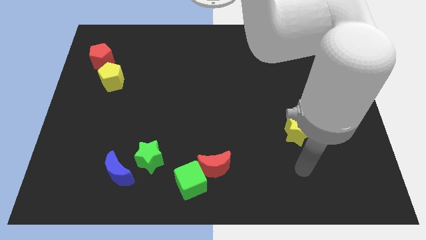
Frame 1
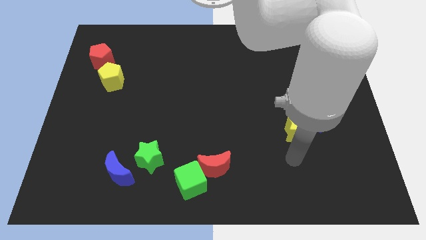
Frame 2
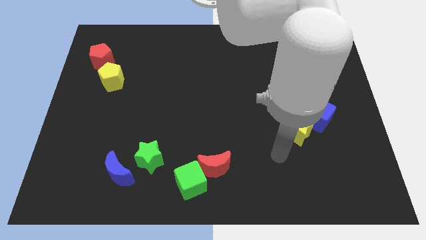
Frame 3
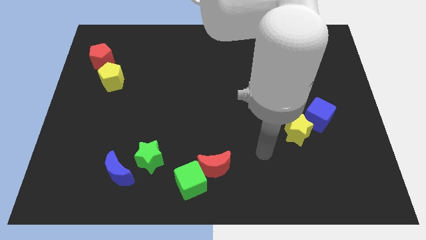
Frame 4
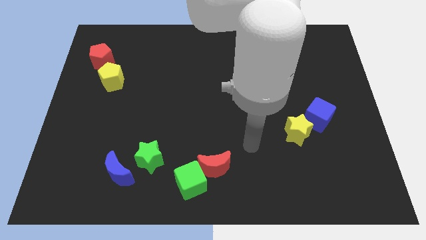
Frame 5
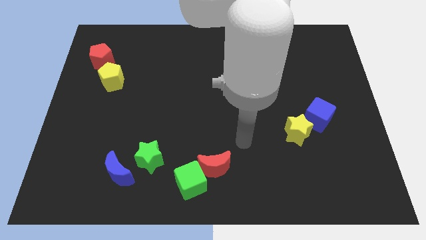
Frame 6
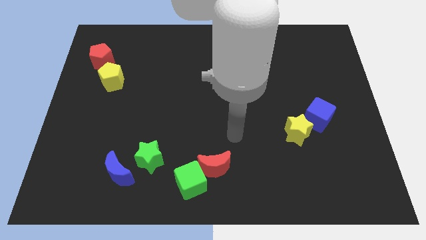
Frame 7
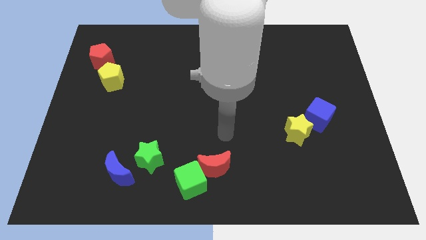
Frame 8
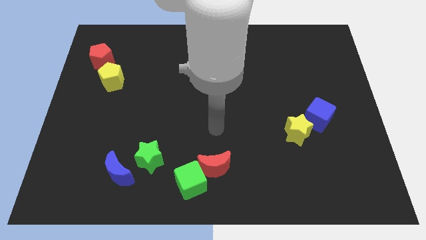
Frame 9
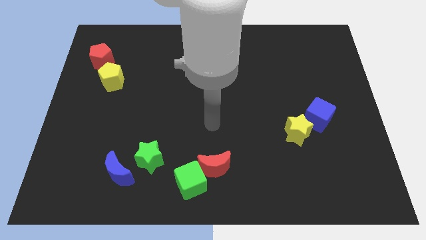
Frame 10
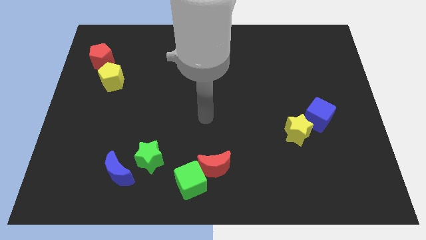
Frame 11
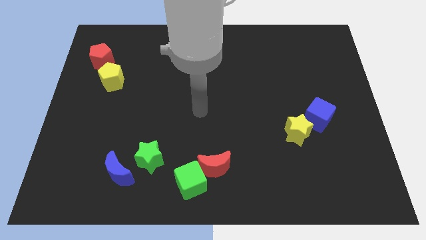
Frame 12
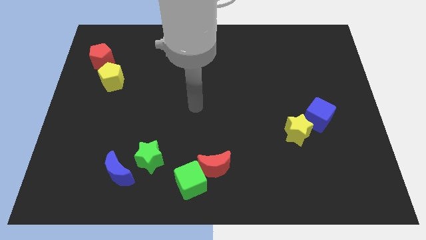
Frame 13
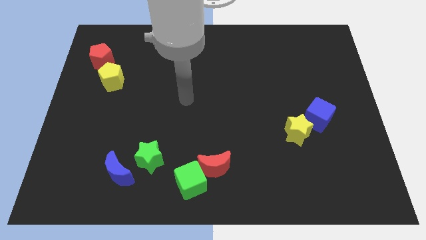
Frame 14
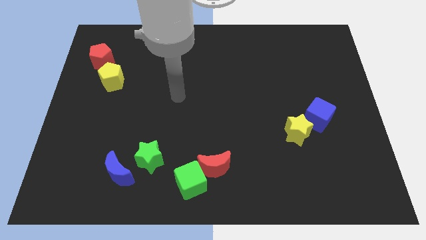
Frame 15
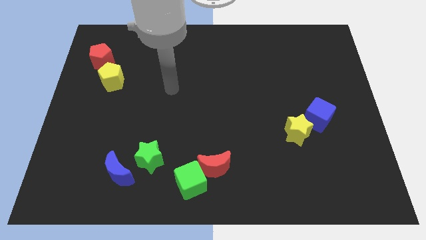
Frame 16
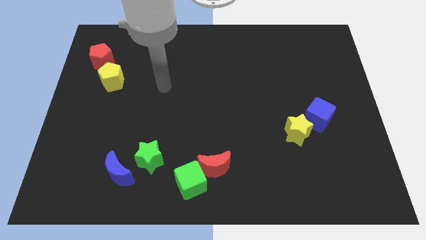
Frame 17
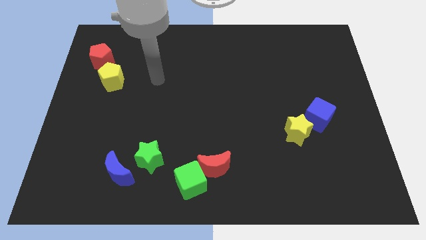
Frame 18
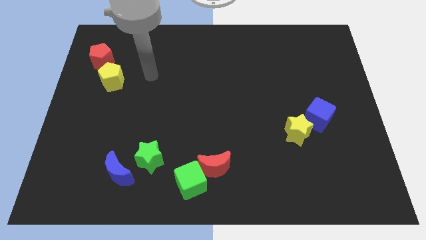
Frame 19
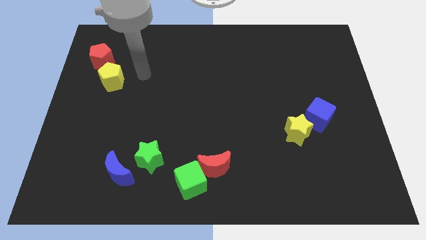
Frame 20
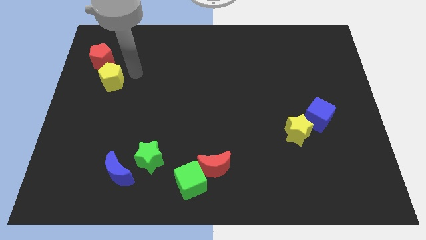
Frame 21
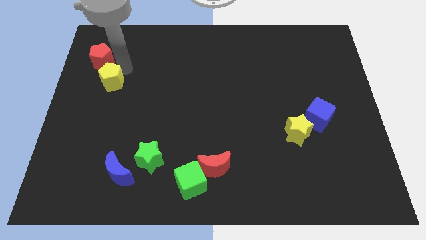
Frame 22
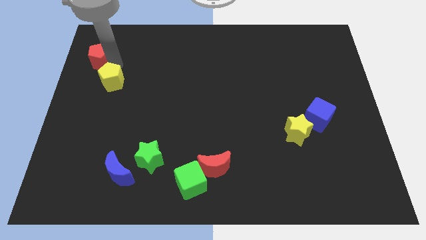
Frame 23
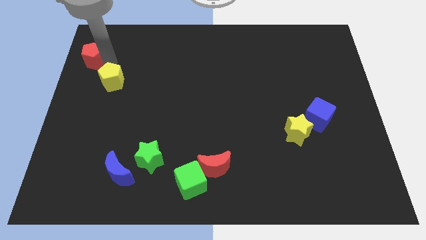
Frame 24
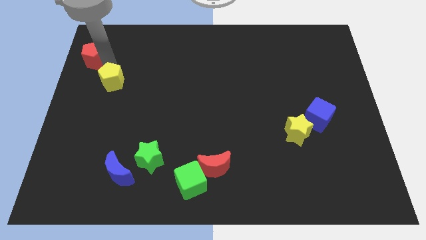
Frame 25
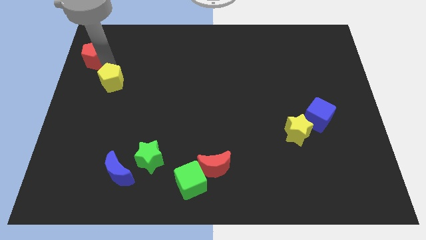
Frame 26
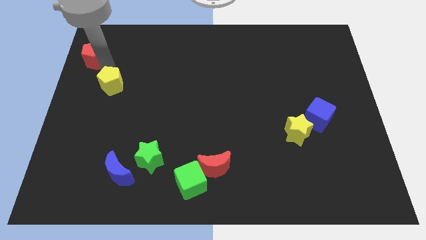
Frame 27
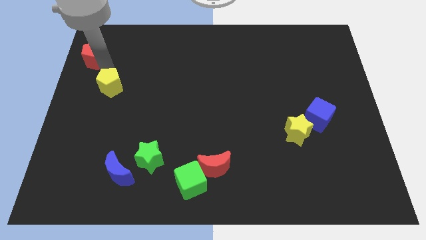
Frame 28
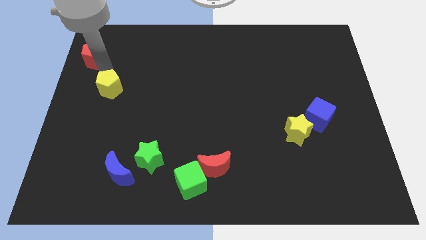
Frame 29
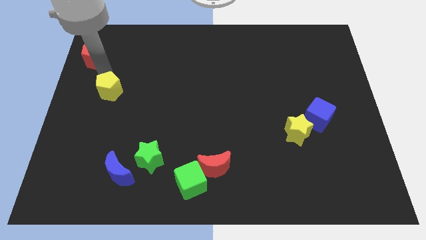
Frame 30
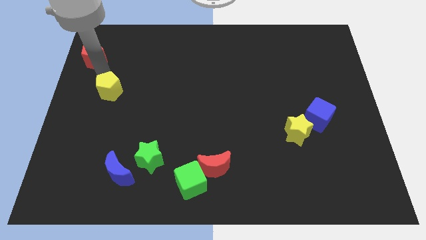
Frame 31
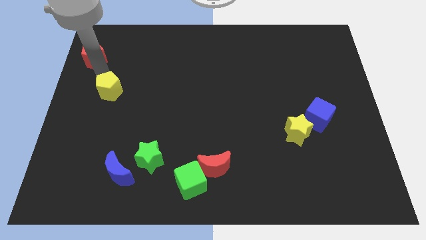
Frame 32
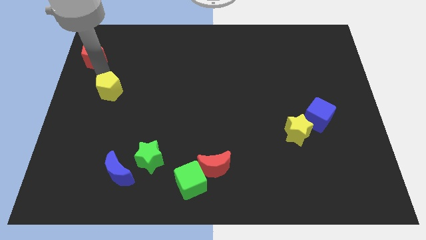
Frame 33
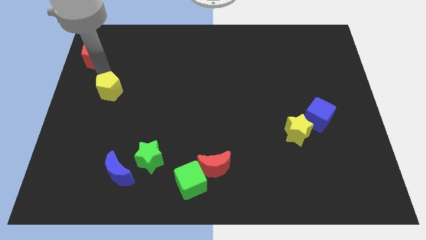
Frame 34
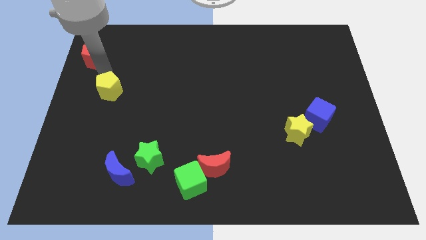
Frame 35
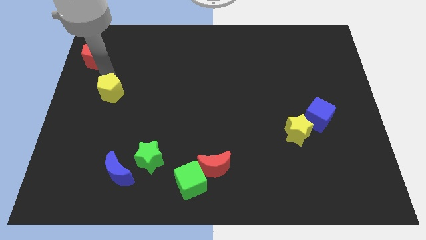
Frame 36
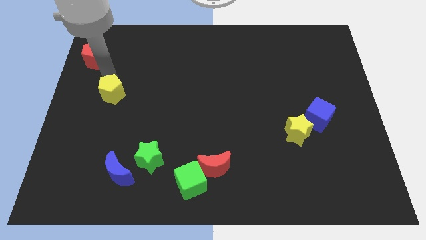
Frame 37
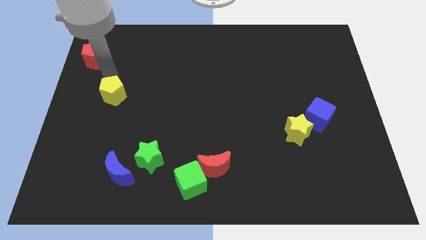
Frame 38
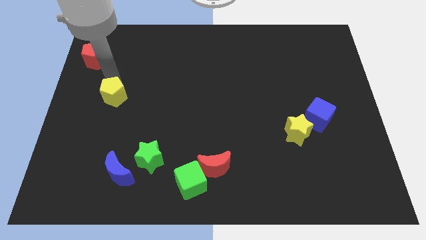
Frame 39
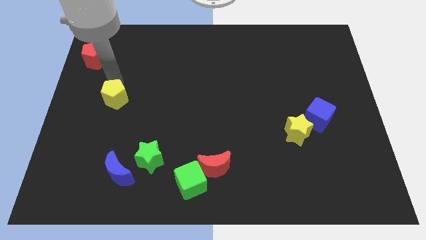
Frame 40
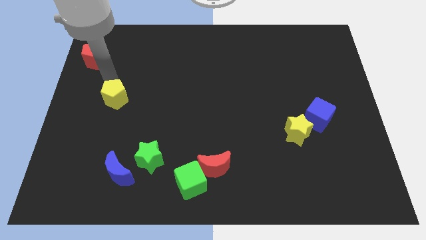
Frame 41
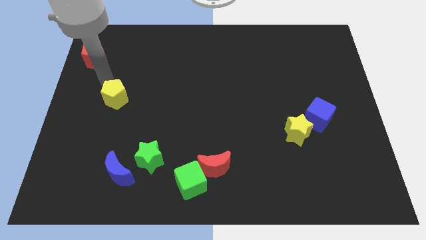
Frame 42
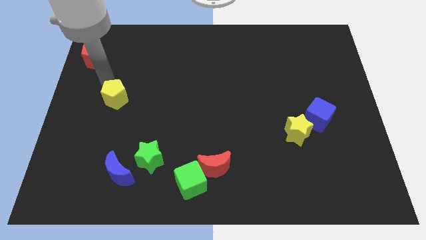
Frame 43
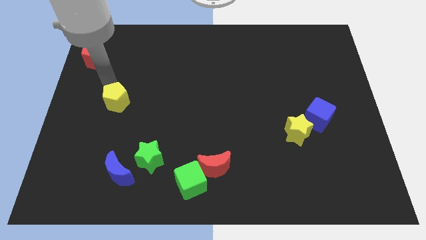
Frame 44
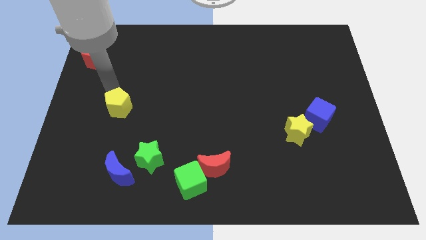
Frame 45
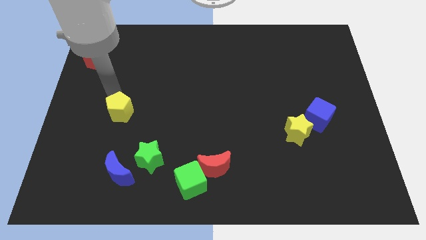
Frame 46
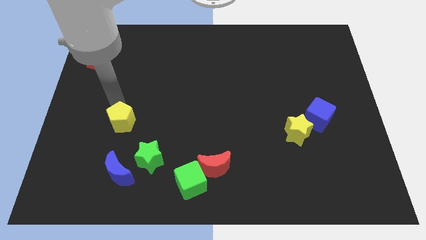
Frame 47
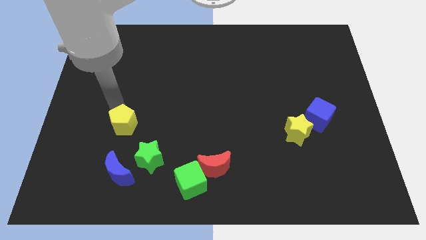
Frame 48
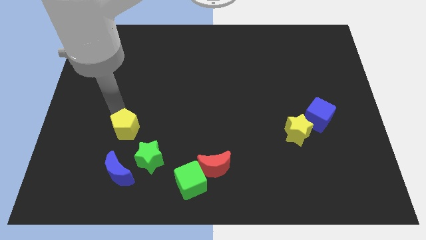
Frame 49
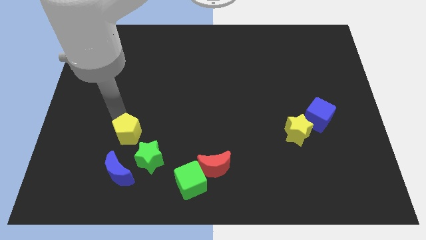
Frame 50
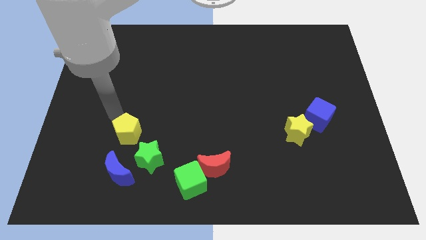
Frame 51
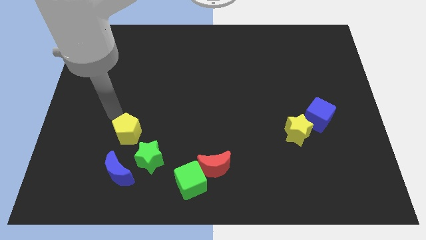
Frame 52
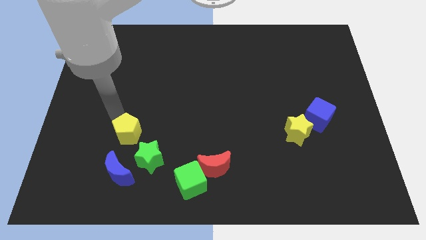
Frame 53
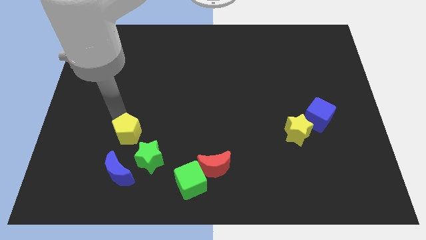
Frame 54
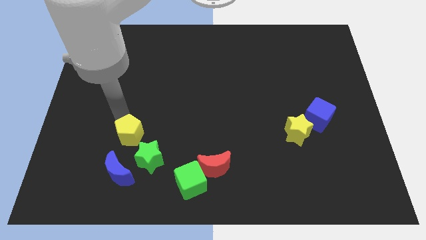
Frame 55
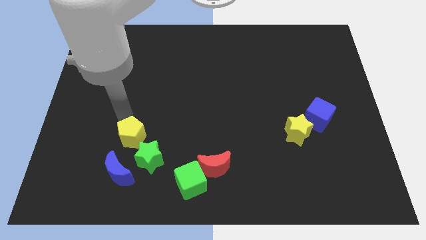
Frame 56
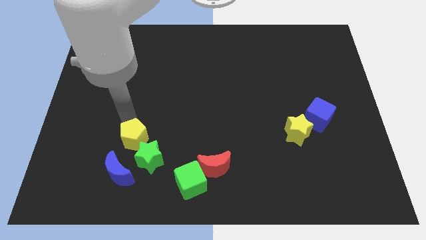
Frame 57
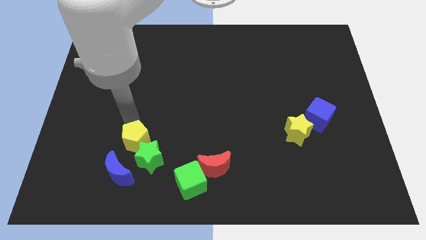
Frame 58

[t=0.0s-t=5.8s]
move the yellow pentagon next to the green star

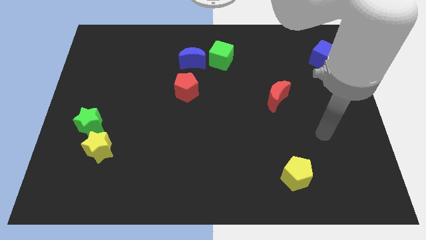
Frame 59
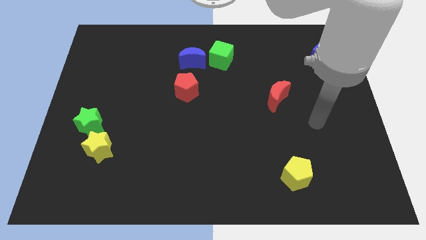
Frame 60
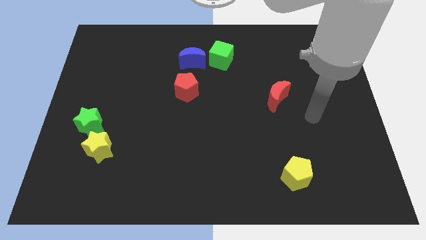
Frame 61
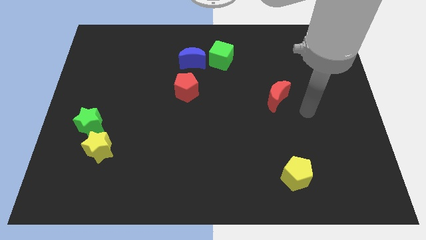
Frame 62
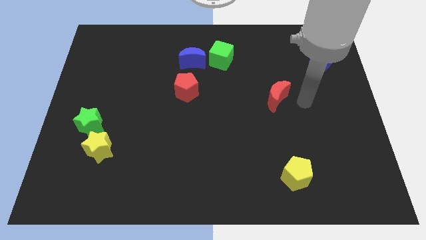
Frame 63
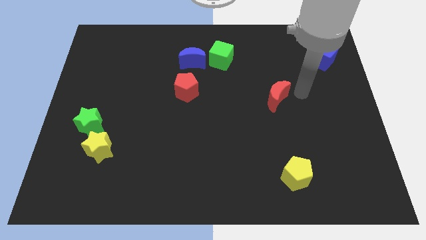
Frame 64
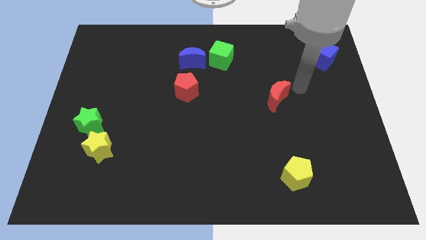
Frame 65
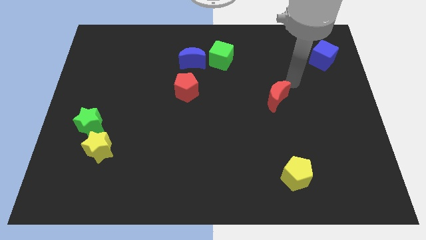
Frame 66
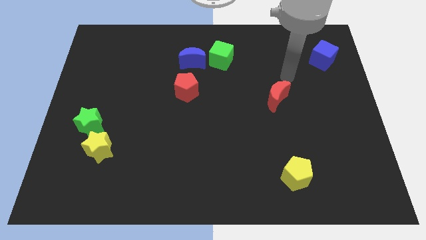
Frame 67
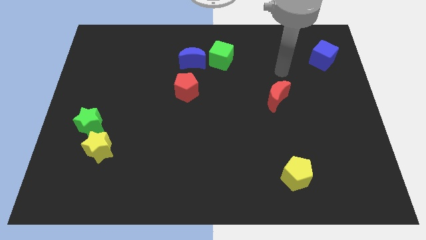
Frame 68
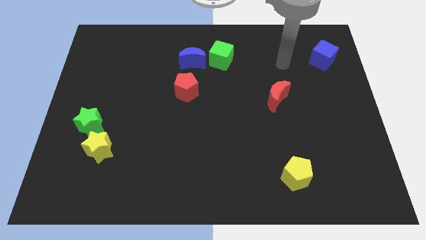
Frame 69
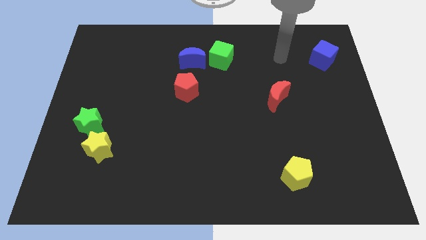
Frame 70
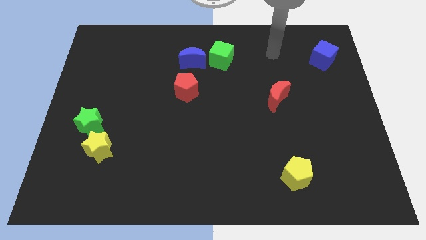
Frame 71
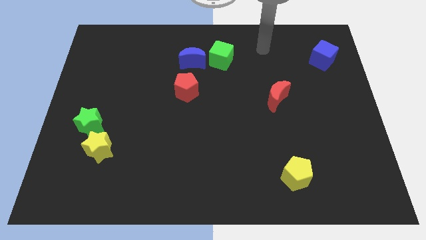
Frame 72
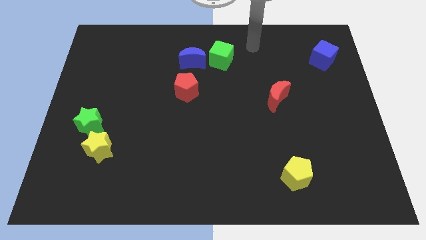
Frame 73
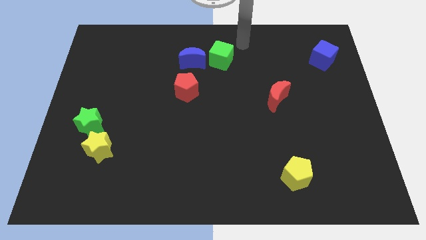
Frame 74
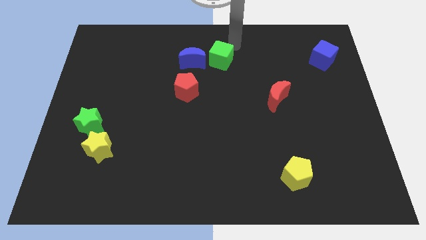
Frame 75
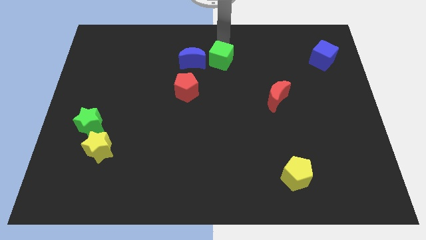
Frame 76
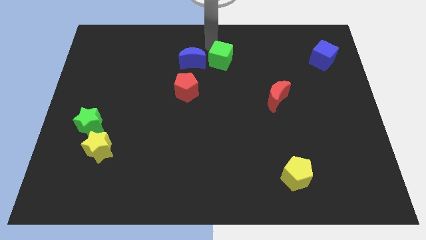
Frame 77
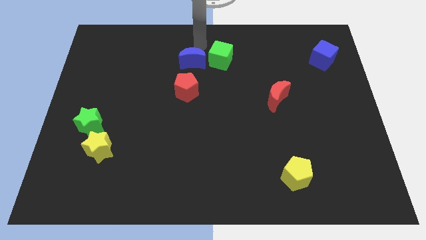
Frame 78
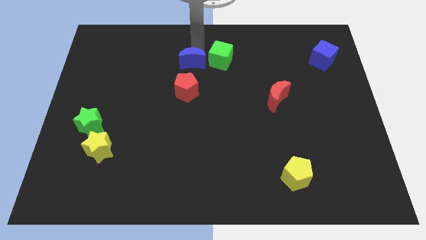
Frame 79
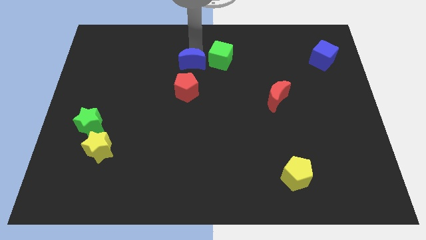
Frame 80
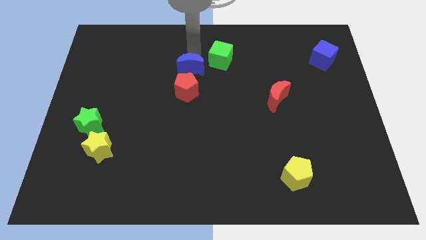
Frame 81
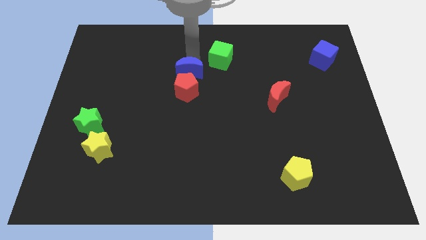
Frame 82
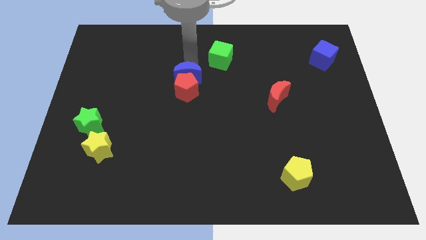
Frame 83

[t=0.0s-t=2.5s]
put the blue moon towards the red pentagon
